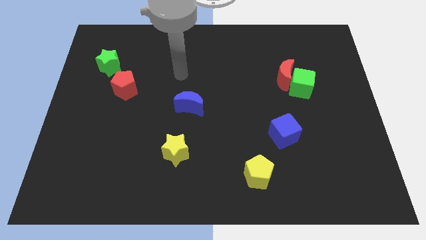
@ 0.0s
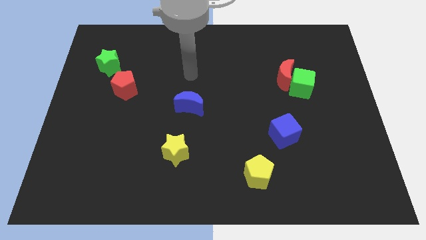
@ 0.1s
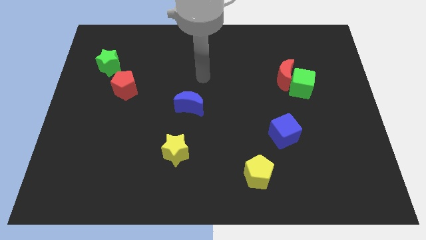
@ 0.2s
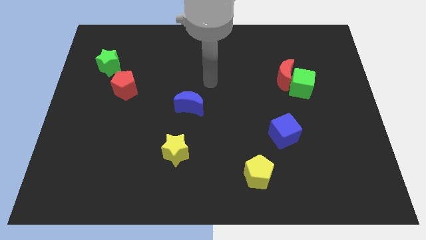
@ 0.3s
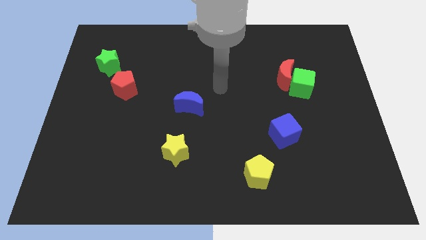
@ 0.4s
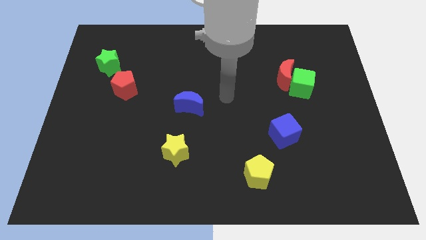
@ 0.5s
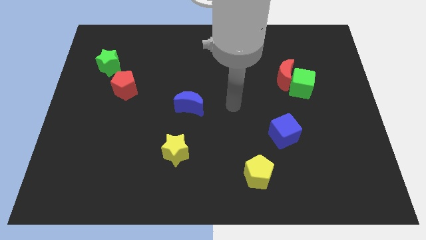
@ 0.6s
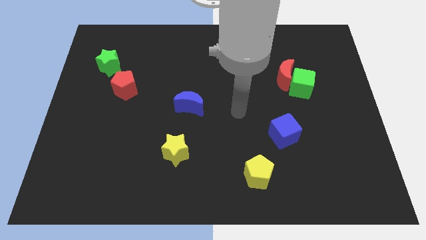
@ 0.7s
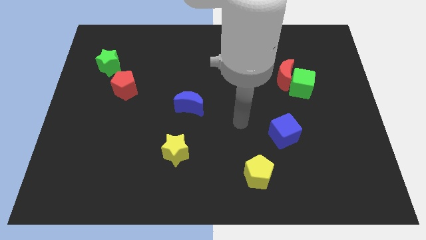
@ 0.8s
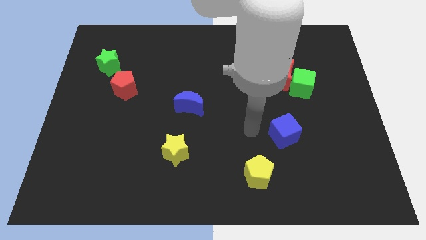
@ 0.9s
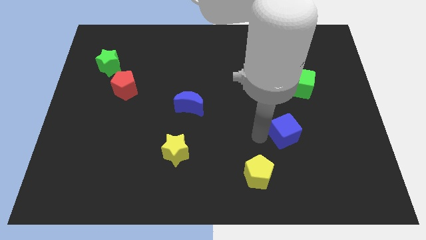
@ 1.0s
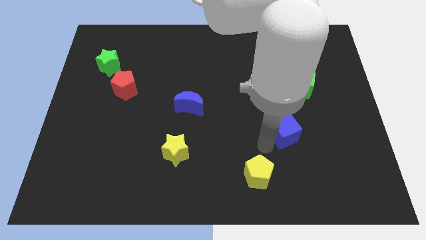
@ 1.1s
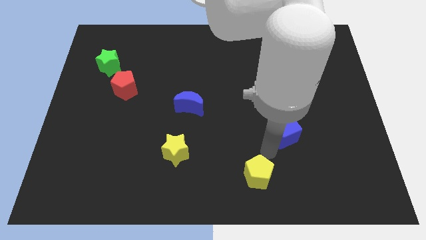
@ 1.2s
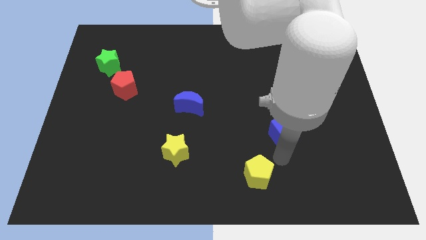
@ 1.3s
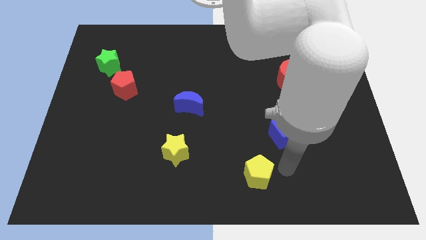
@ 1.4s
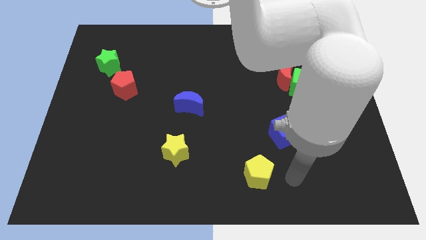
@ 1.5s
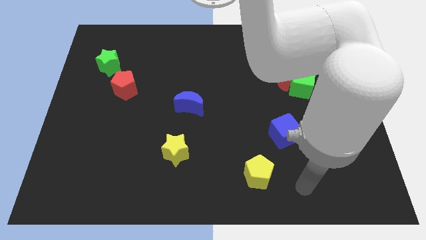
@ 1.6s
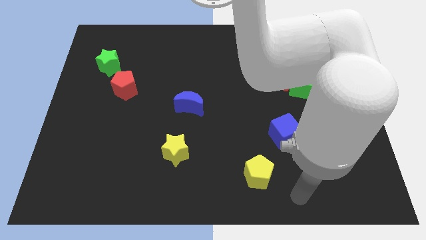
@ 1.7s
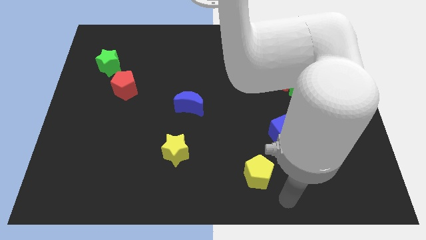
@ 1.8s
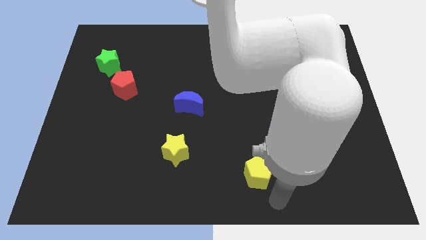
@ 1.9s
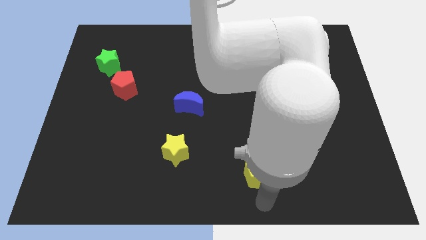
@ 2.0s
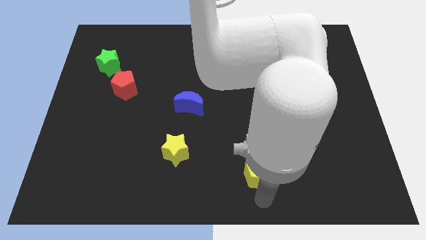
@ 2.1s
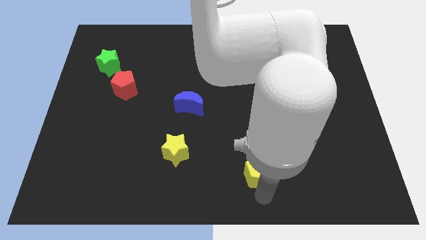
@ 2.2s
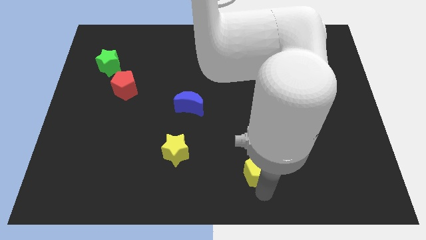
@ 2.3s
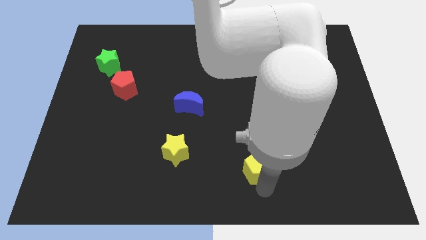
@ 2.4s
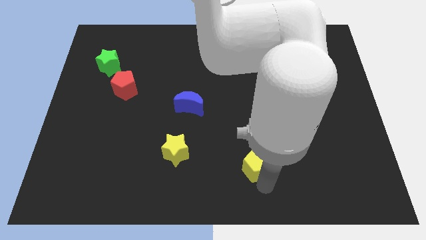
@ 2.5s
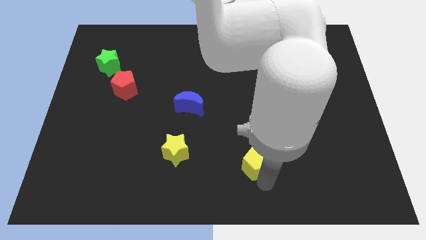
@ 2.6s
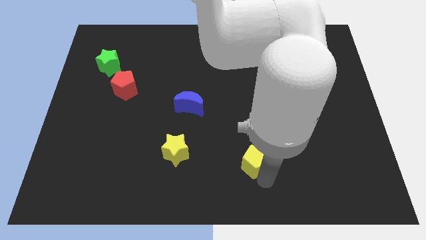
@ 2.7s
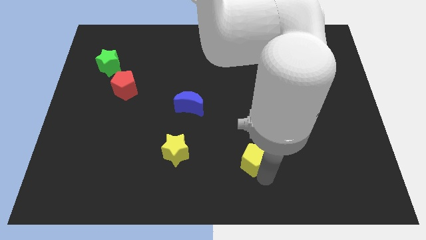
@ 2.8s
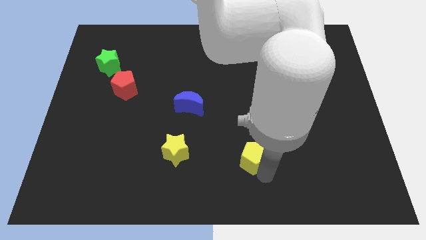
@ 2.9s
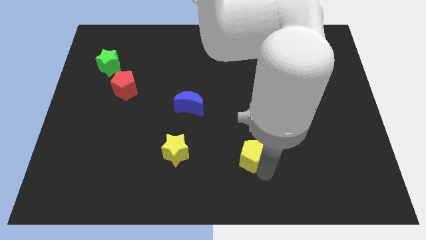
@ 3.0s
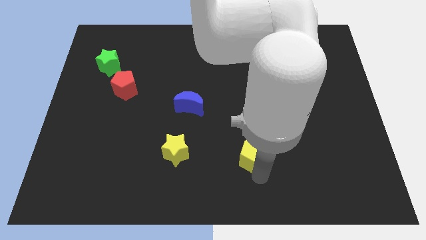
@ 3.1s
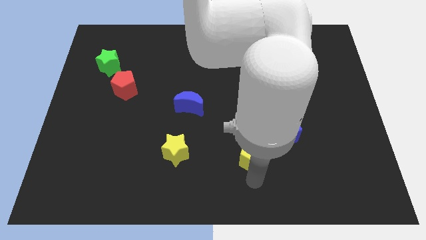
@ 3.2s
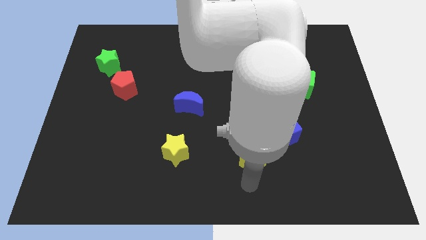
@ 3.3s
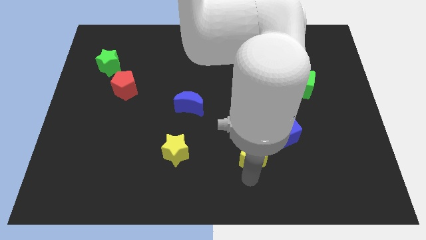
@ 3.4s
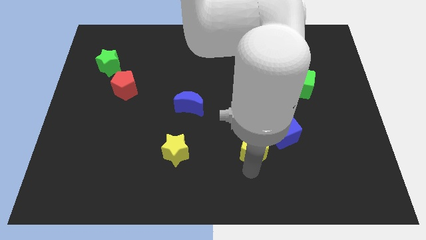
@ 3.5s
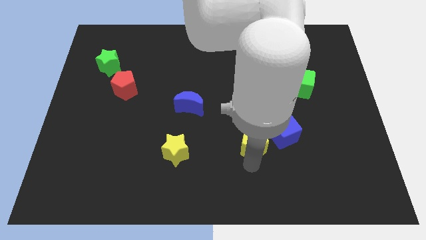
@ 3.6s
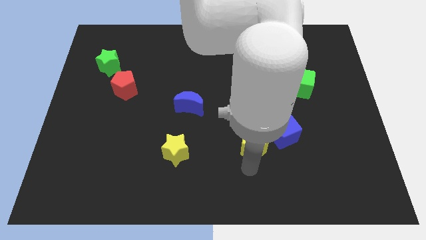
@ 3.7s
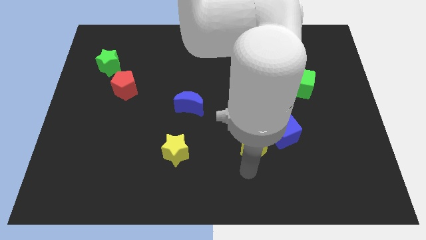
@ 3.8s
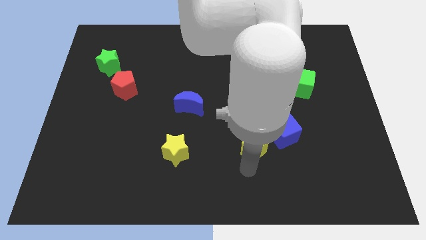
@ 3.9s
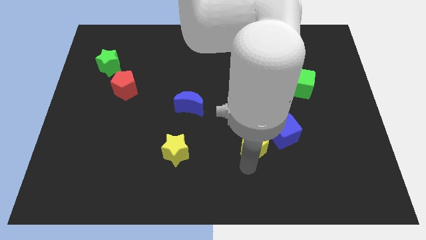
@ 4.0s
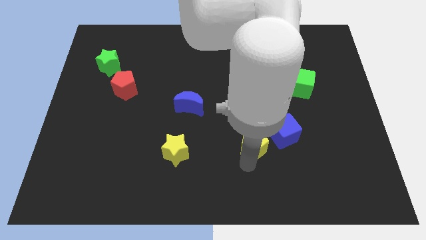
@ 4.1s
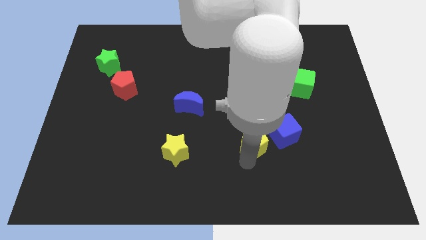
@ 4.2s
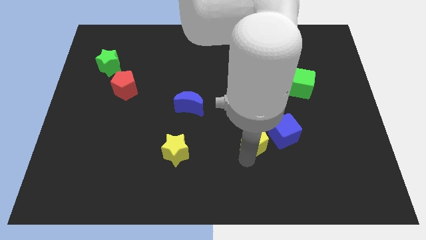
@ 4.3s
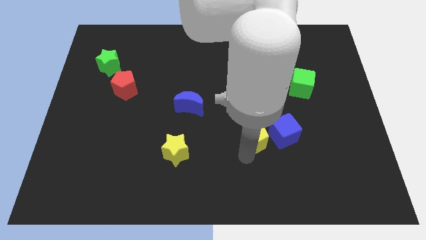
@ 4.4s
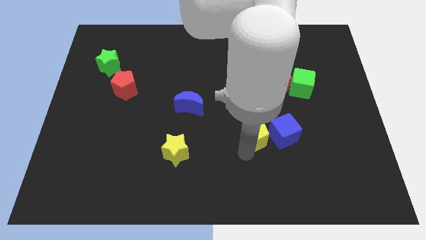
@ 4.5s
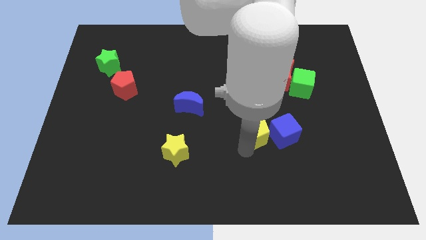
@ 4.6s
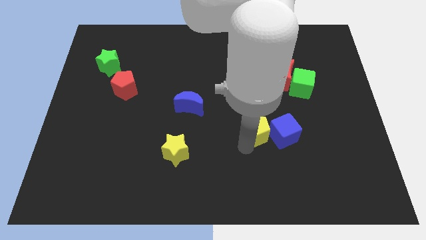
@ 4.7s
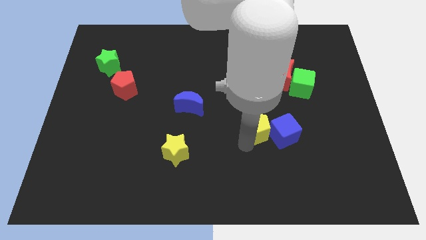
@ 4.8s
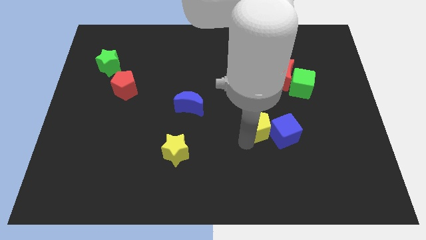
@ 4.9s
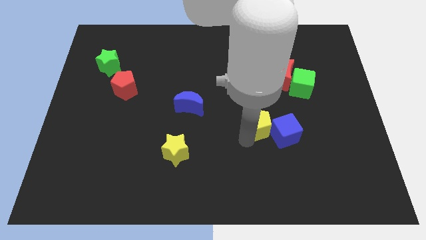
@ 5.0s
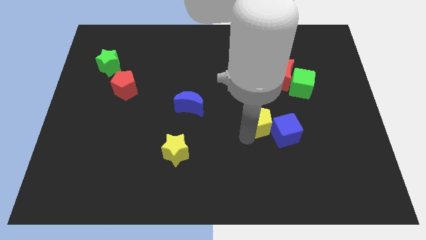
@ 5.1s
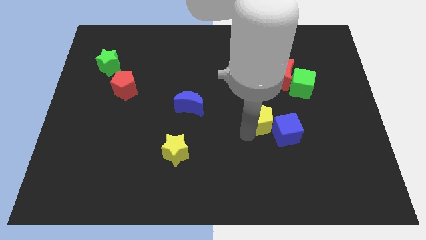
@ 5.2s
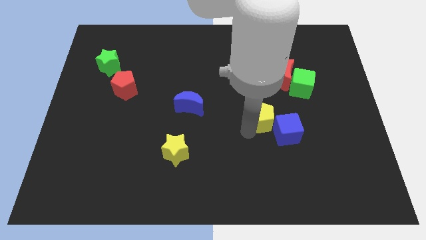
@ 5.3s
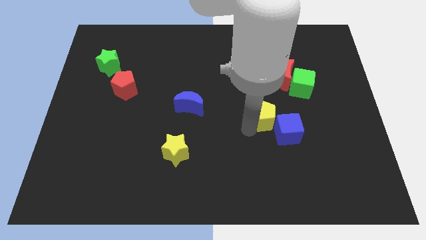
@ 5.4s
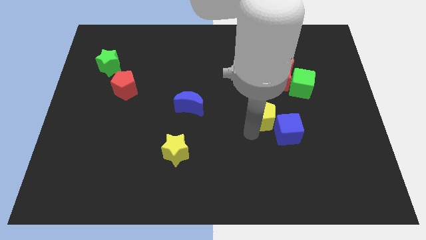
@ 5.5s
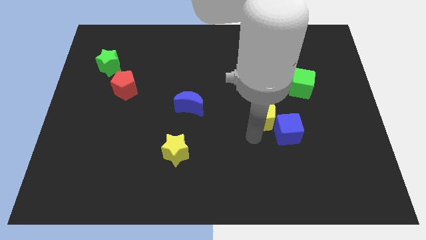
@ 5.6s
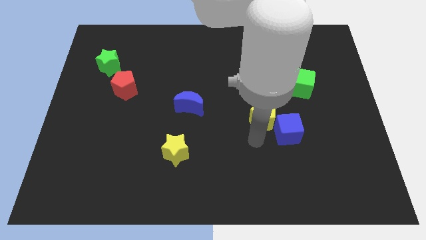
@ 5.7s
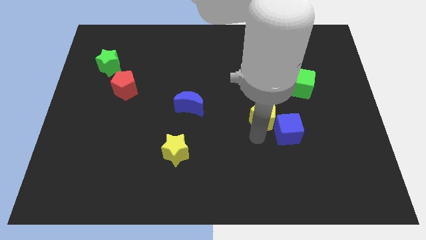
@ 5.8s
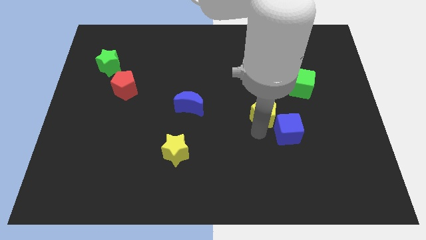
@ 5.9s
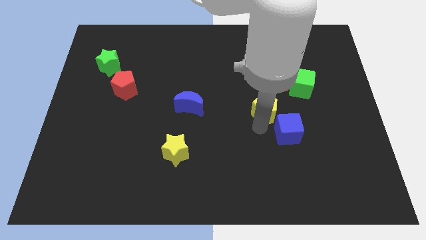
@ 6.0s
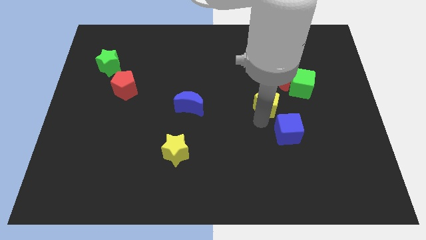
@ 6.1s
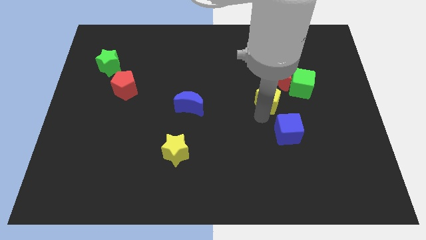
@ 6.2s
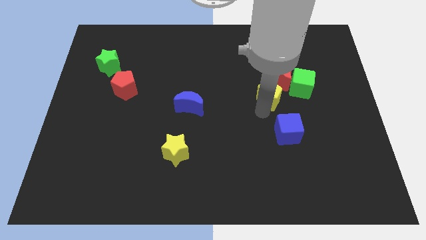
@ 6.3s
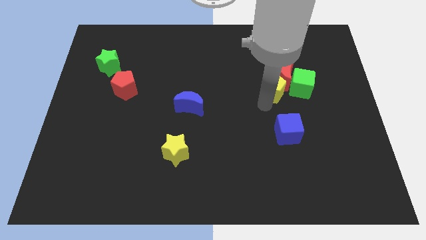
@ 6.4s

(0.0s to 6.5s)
put the yellow pentagon next to the red moon

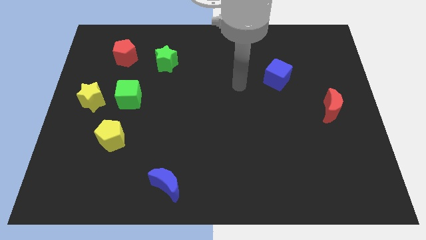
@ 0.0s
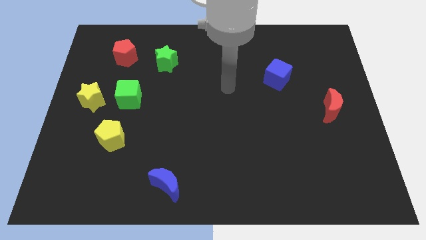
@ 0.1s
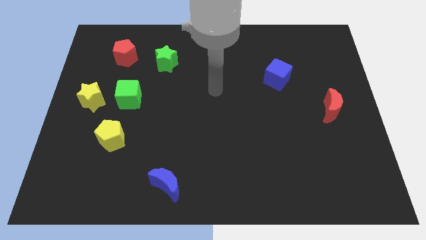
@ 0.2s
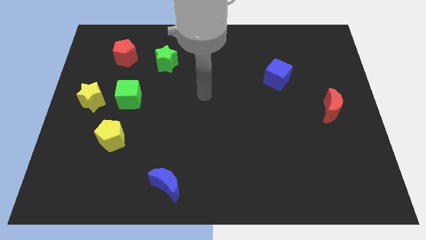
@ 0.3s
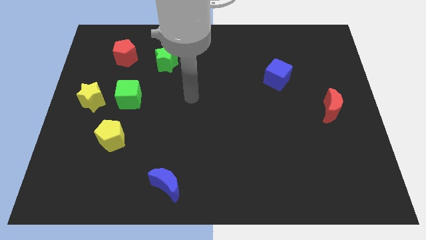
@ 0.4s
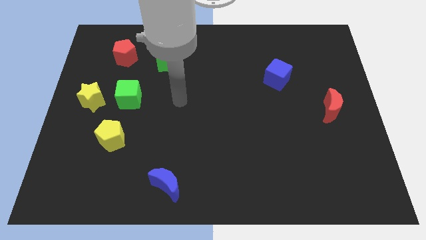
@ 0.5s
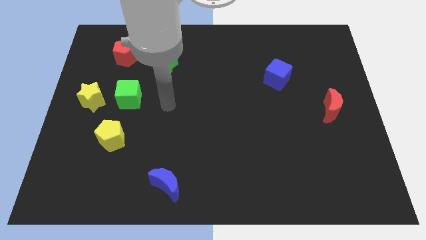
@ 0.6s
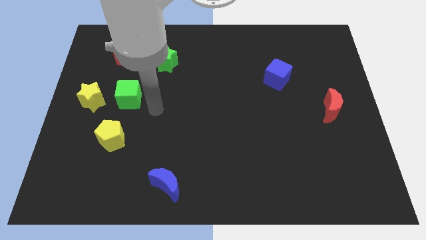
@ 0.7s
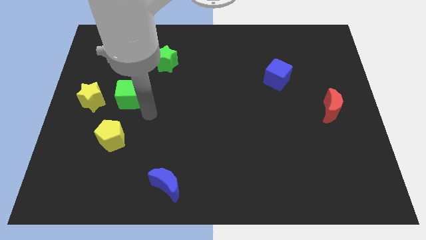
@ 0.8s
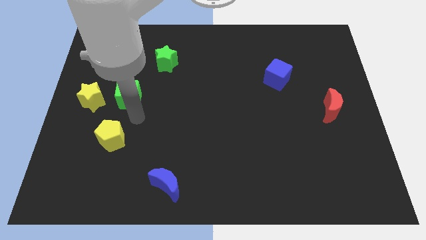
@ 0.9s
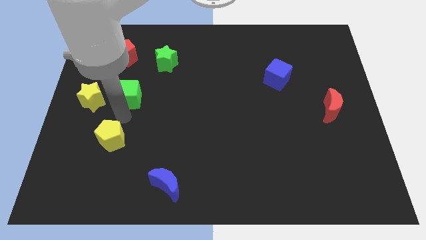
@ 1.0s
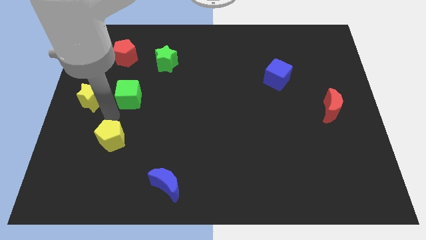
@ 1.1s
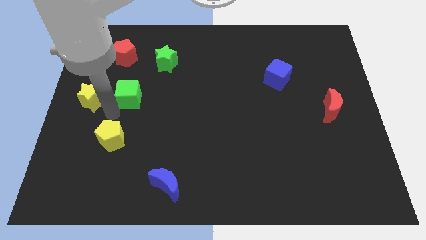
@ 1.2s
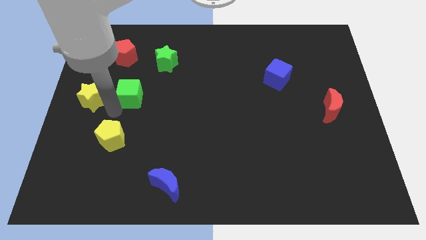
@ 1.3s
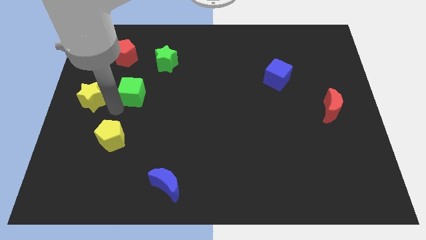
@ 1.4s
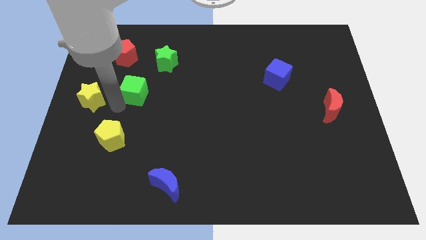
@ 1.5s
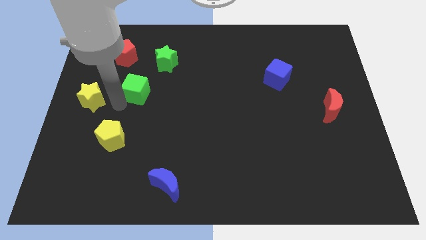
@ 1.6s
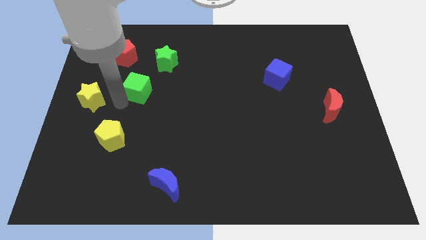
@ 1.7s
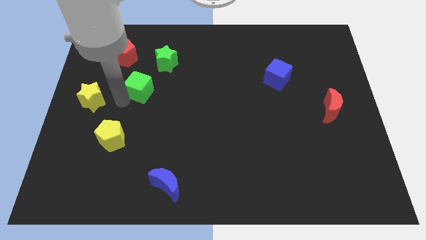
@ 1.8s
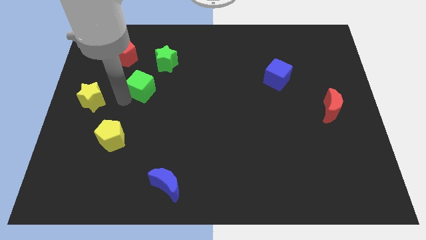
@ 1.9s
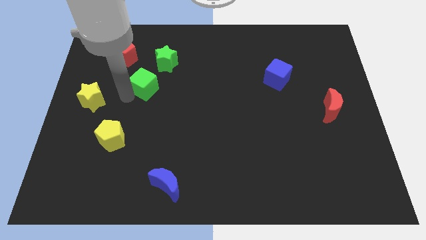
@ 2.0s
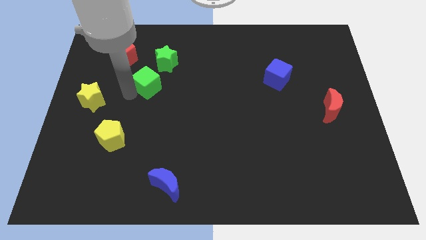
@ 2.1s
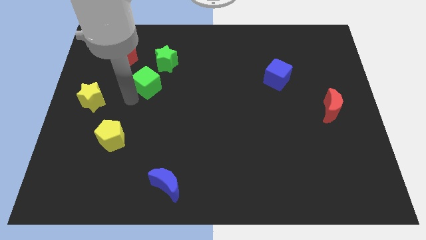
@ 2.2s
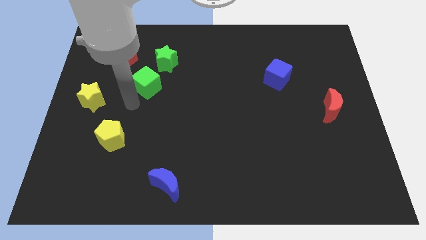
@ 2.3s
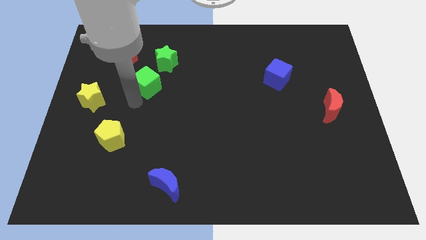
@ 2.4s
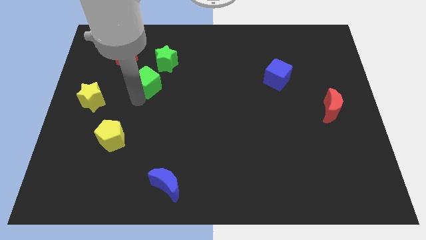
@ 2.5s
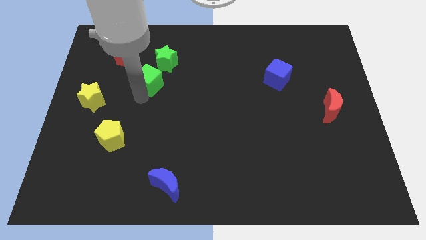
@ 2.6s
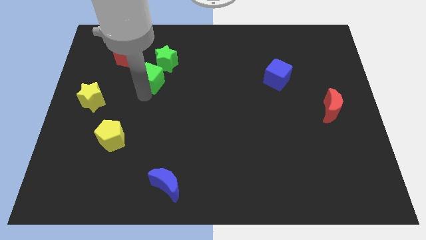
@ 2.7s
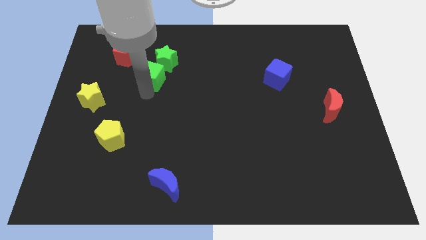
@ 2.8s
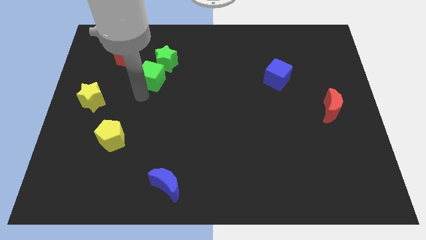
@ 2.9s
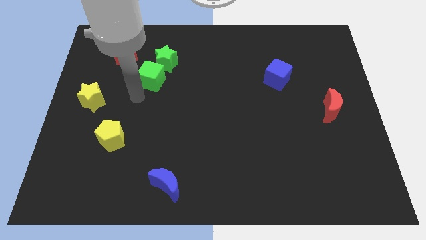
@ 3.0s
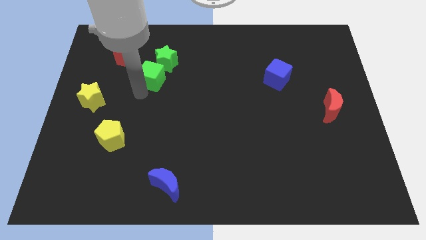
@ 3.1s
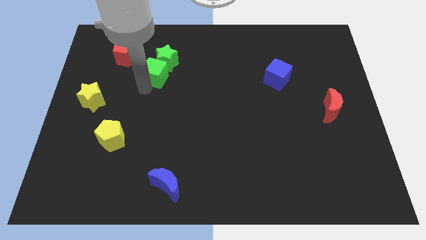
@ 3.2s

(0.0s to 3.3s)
move the green cube to the green star
